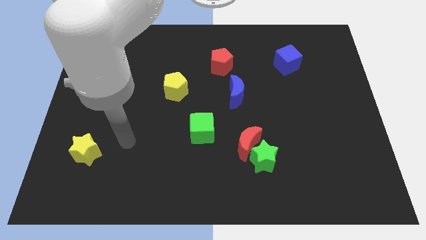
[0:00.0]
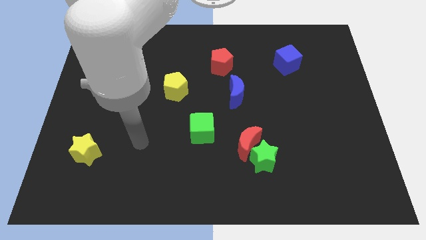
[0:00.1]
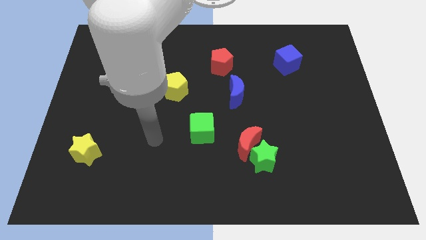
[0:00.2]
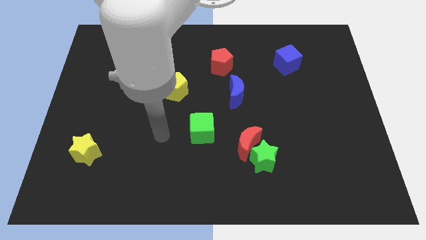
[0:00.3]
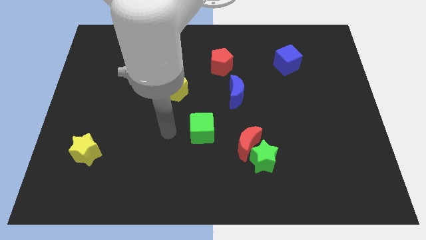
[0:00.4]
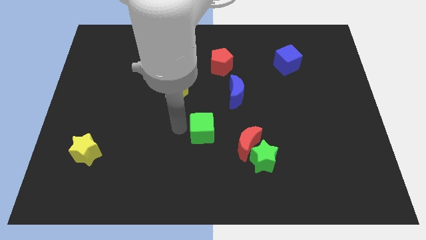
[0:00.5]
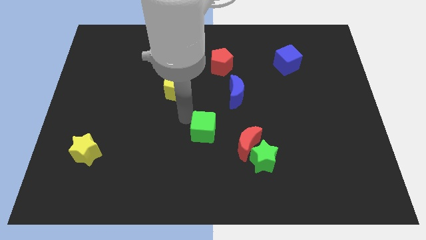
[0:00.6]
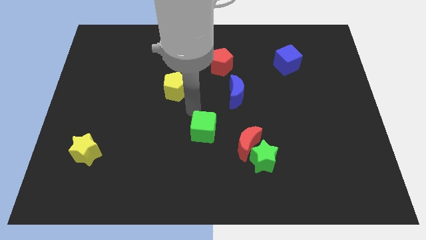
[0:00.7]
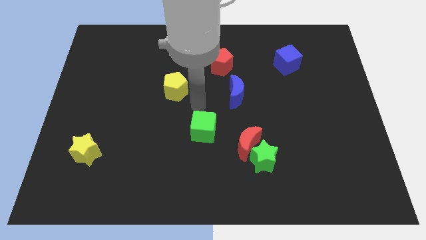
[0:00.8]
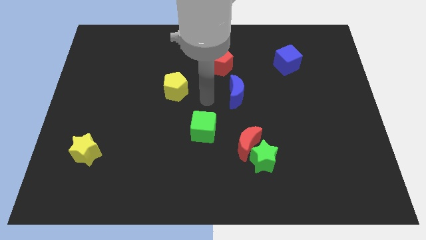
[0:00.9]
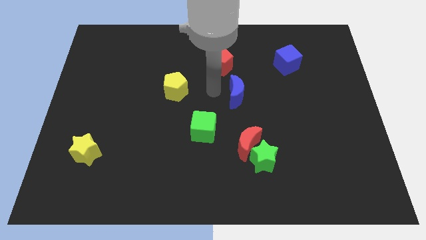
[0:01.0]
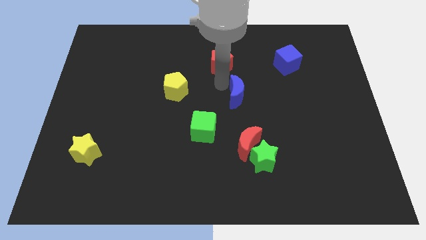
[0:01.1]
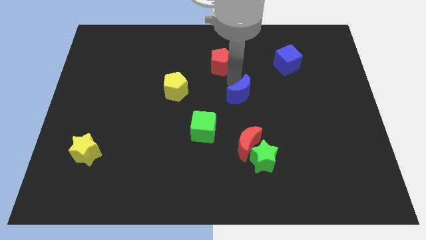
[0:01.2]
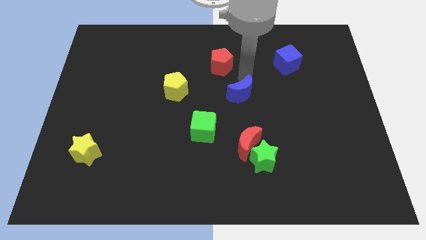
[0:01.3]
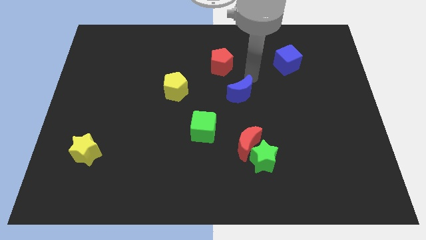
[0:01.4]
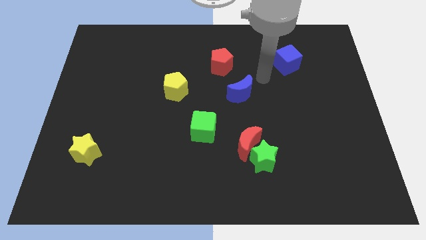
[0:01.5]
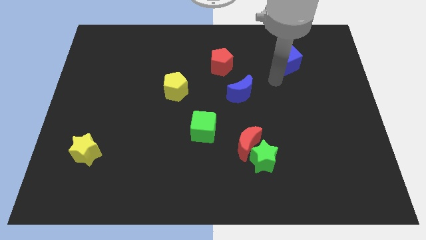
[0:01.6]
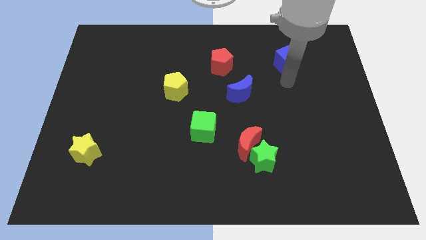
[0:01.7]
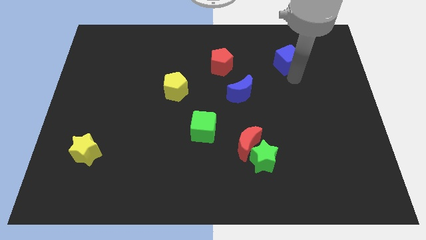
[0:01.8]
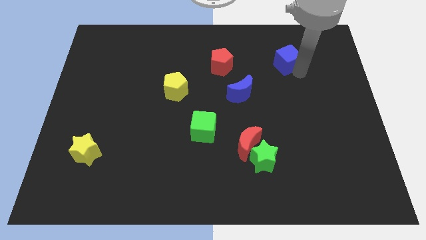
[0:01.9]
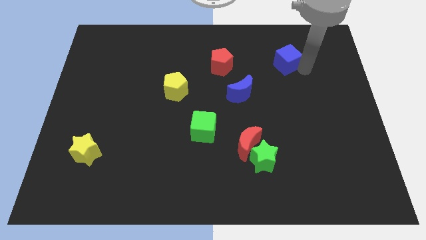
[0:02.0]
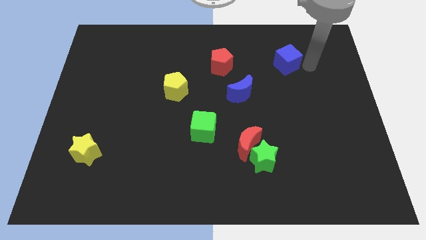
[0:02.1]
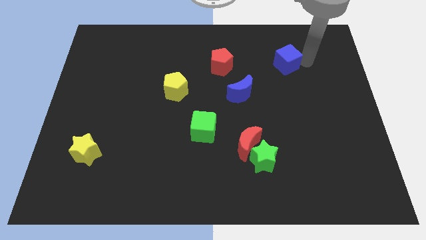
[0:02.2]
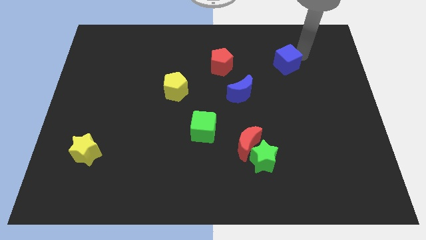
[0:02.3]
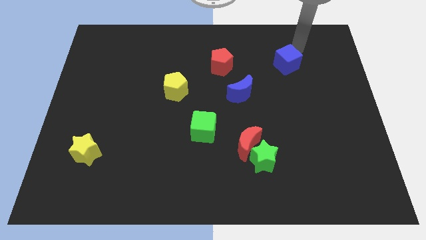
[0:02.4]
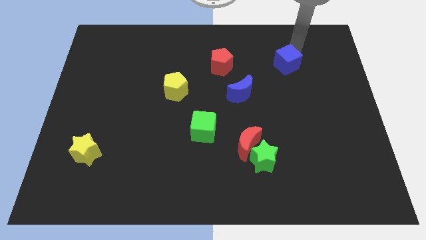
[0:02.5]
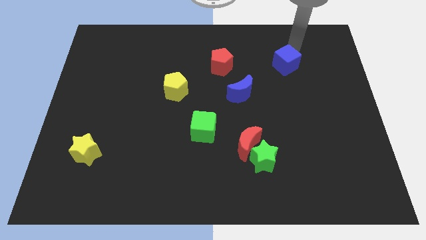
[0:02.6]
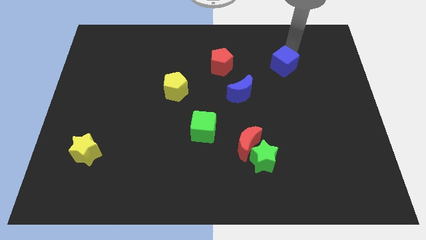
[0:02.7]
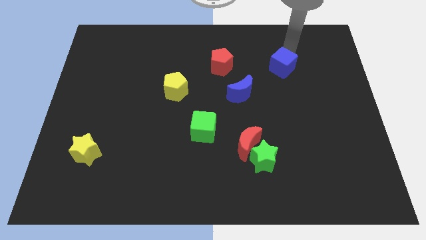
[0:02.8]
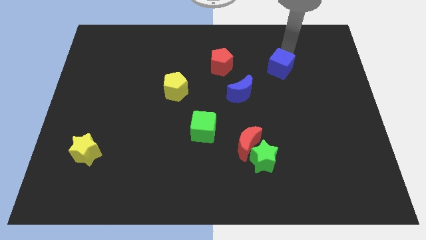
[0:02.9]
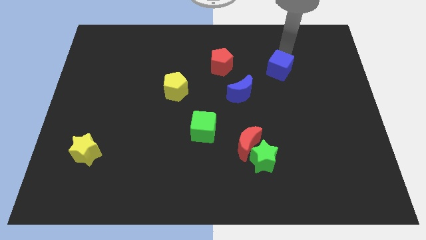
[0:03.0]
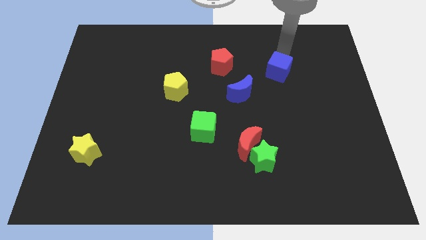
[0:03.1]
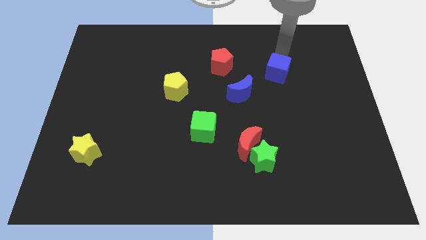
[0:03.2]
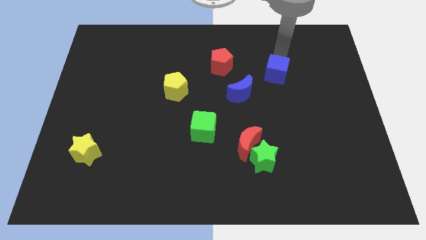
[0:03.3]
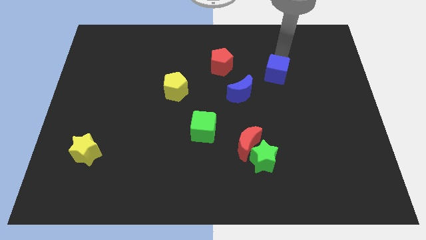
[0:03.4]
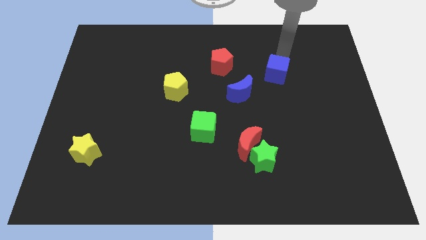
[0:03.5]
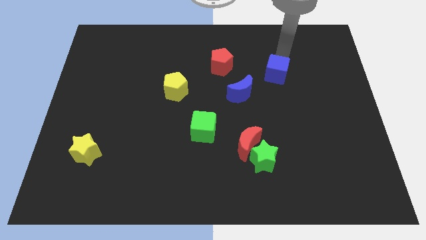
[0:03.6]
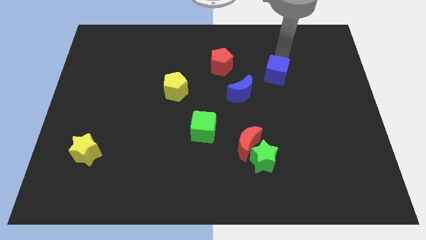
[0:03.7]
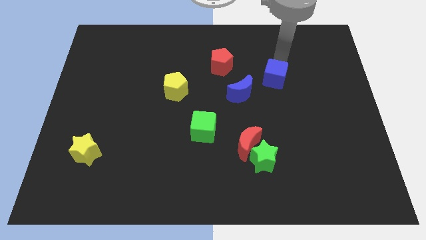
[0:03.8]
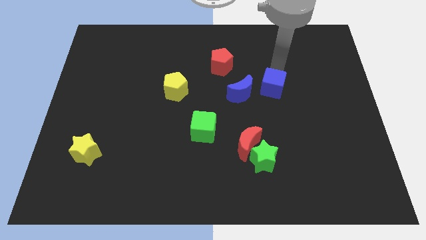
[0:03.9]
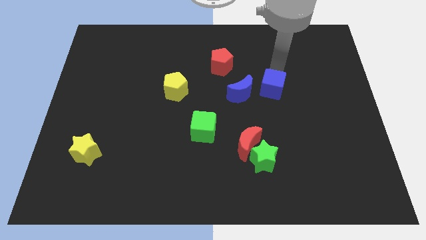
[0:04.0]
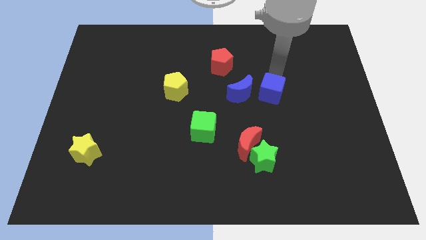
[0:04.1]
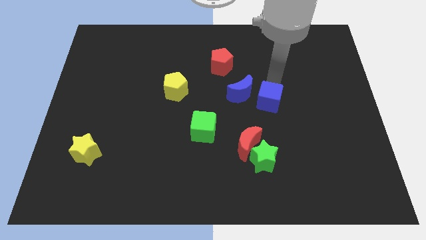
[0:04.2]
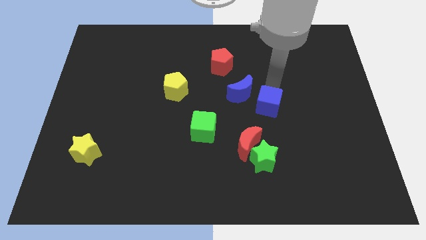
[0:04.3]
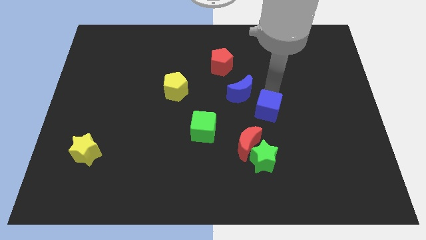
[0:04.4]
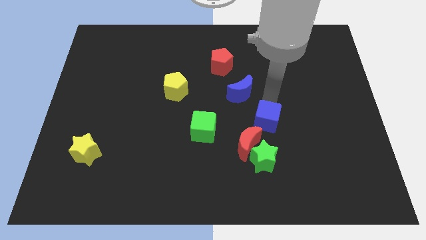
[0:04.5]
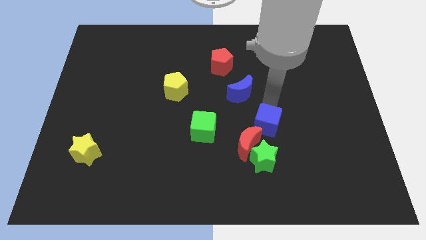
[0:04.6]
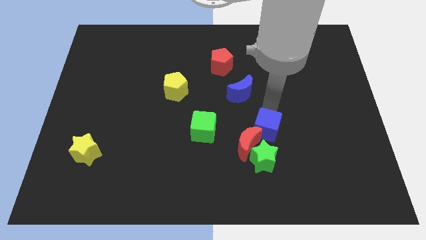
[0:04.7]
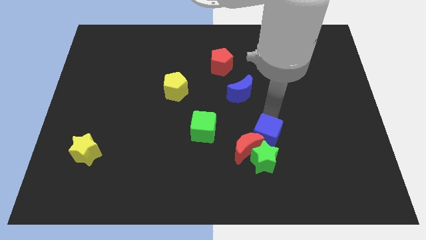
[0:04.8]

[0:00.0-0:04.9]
put the blue cube to the red moon

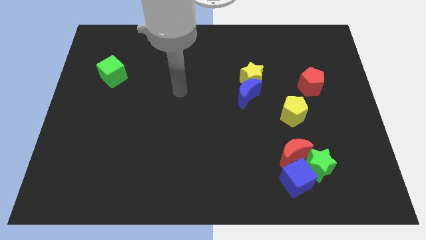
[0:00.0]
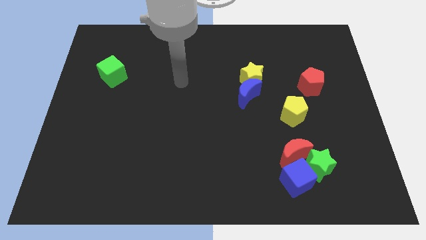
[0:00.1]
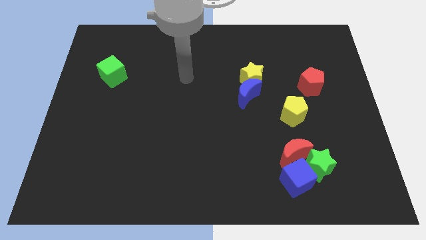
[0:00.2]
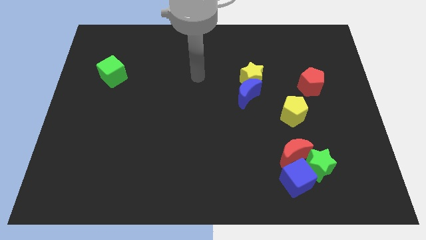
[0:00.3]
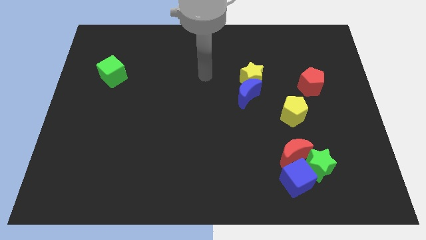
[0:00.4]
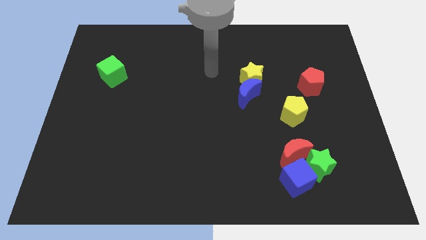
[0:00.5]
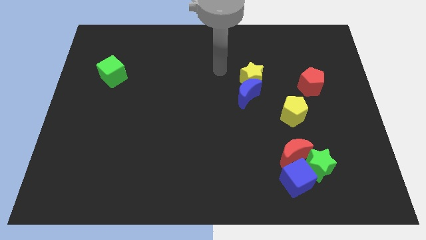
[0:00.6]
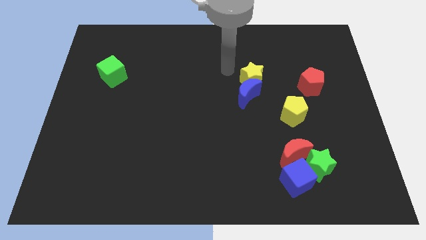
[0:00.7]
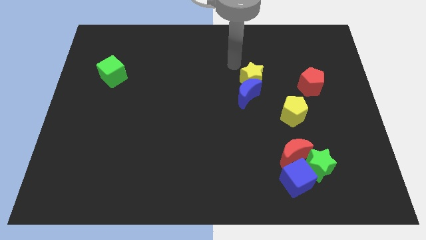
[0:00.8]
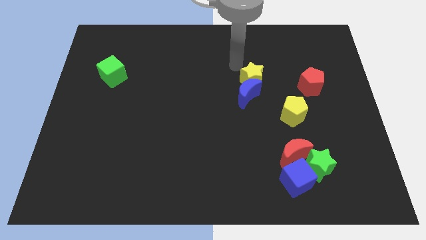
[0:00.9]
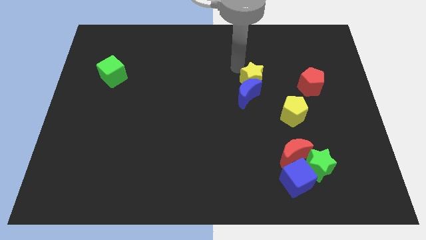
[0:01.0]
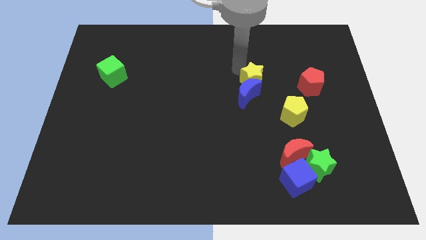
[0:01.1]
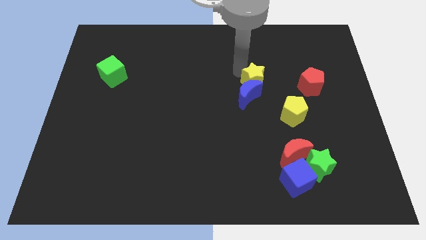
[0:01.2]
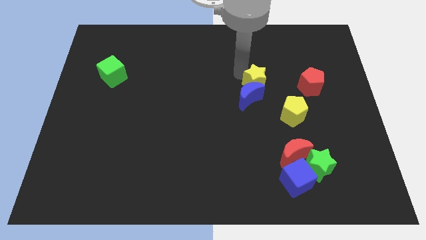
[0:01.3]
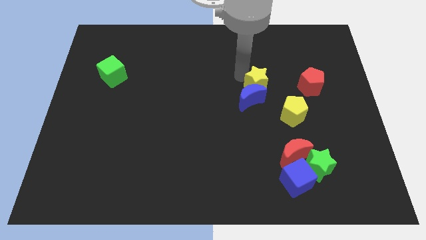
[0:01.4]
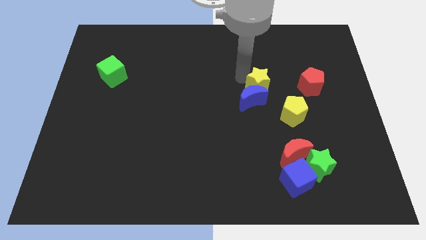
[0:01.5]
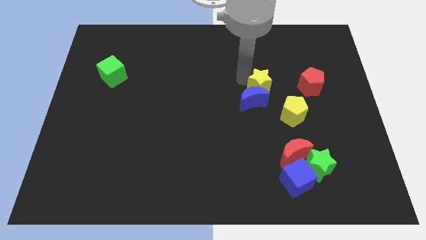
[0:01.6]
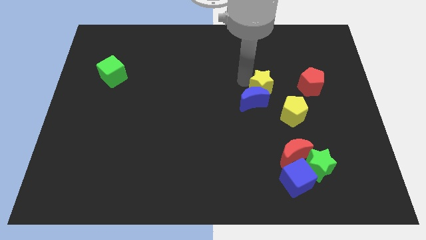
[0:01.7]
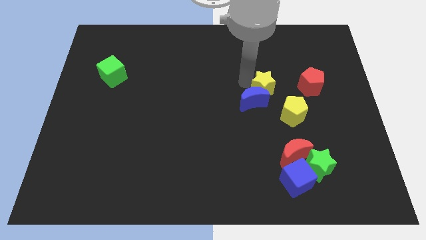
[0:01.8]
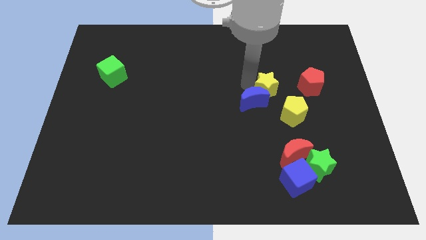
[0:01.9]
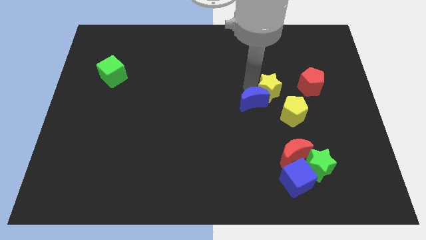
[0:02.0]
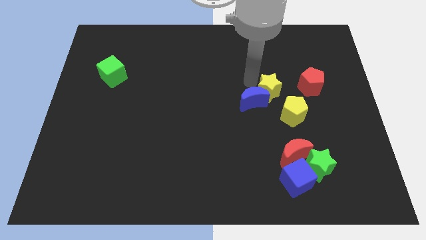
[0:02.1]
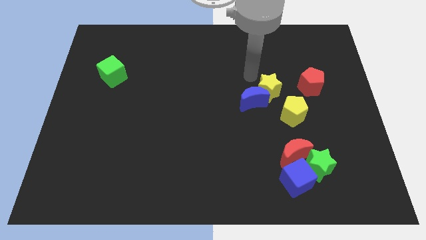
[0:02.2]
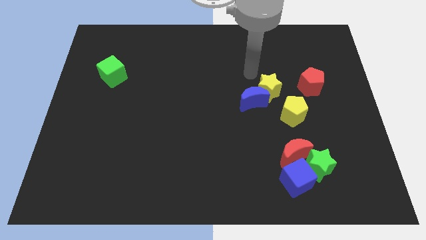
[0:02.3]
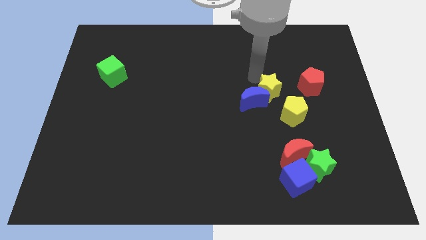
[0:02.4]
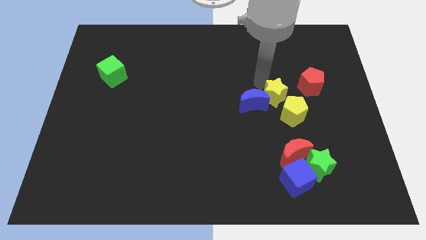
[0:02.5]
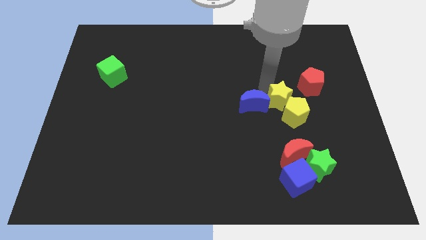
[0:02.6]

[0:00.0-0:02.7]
put the yellow star next to the yellow pentagon

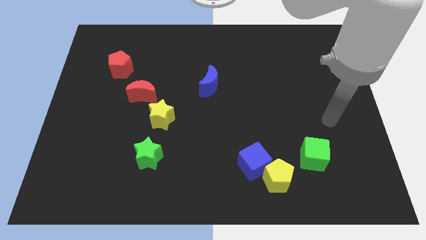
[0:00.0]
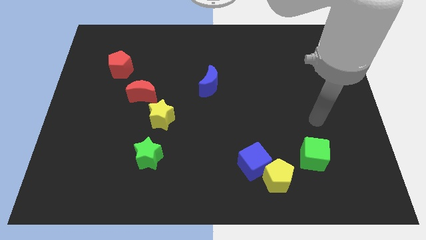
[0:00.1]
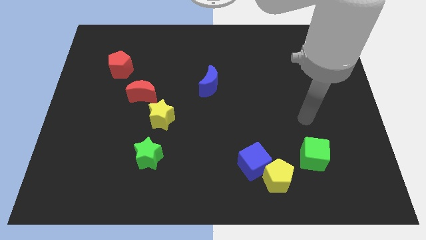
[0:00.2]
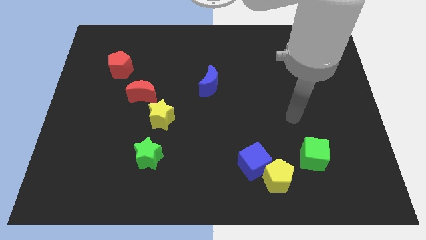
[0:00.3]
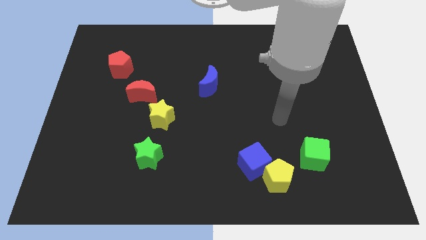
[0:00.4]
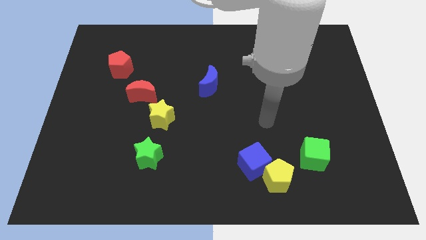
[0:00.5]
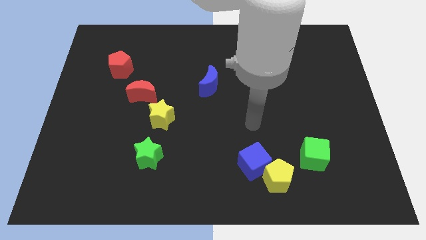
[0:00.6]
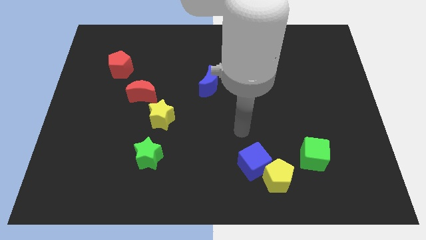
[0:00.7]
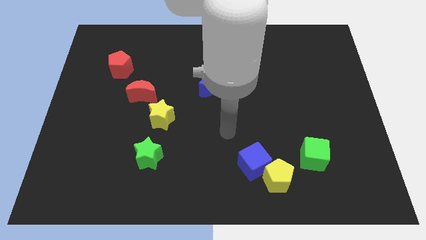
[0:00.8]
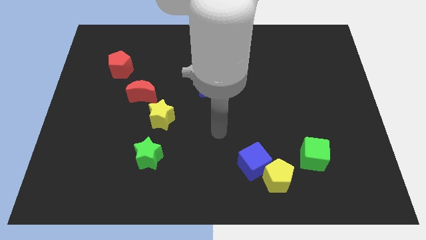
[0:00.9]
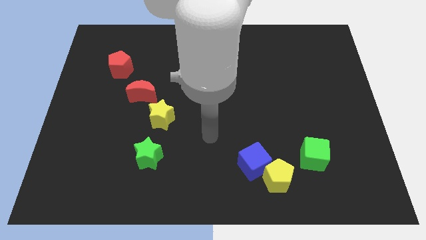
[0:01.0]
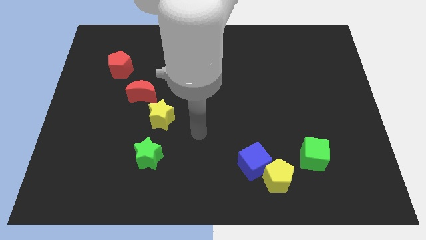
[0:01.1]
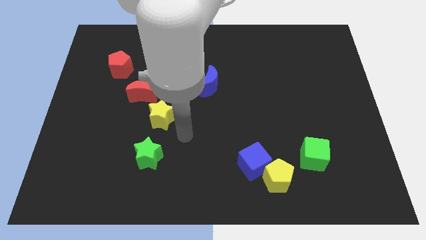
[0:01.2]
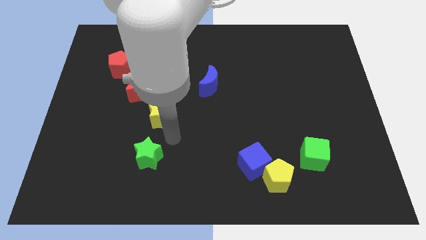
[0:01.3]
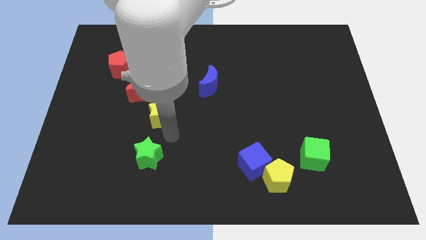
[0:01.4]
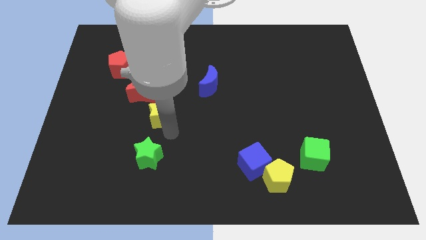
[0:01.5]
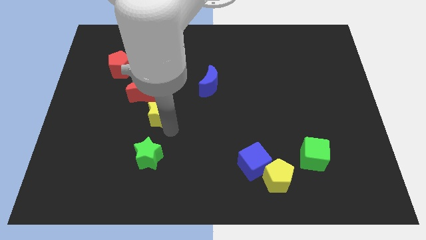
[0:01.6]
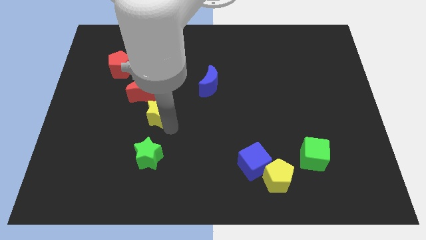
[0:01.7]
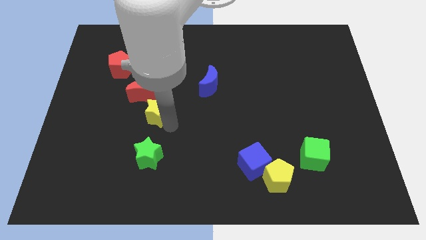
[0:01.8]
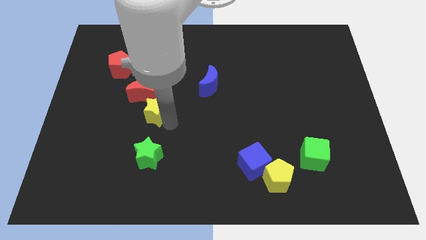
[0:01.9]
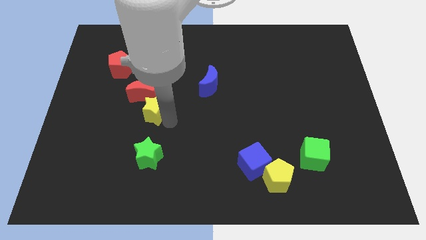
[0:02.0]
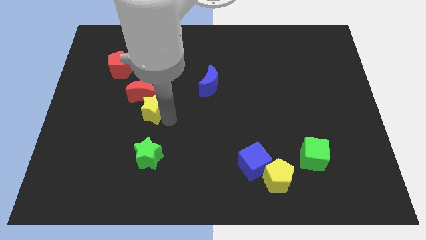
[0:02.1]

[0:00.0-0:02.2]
slide the yellow star next to the red moon
